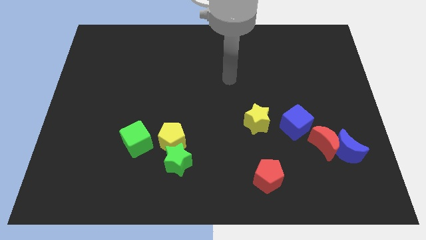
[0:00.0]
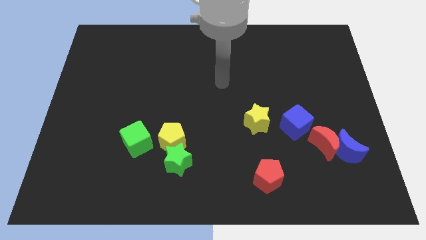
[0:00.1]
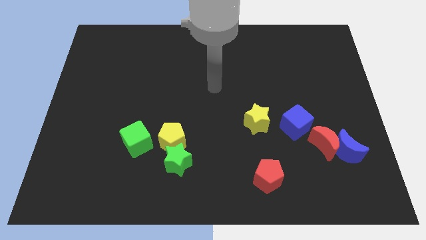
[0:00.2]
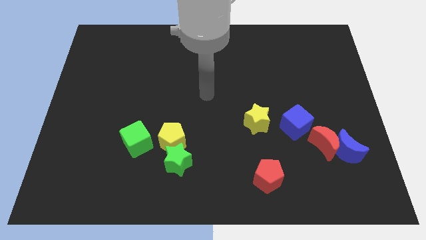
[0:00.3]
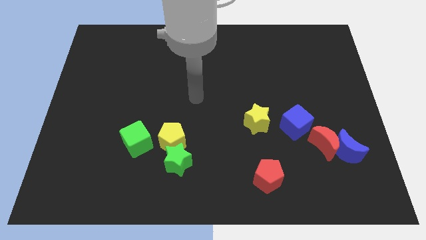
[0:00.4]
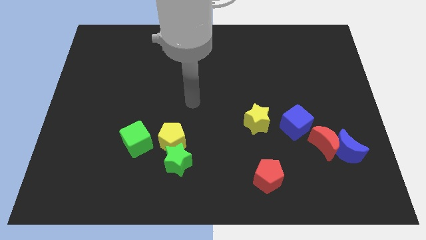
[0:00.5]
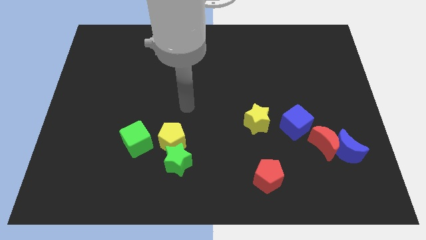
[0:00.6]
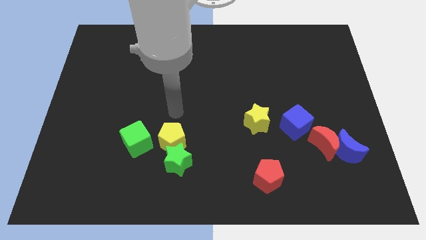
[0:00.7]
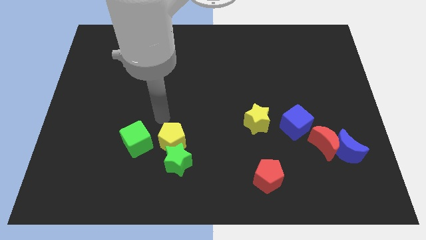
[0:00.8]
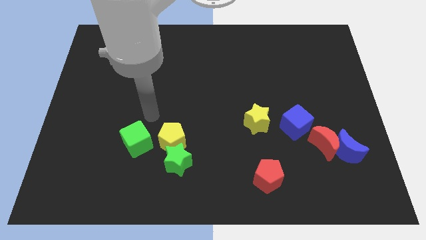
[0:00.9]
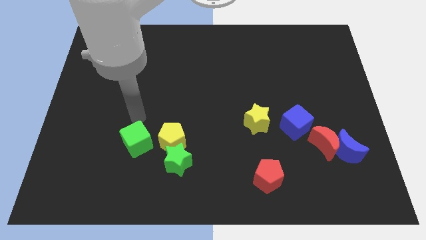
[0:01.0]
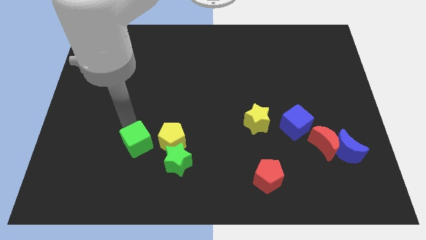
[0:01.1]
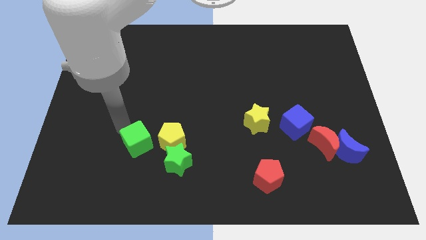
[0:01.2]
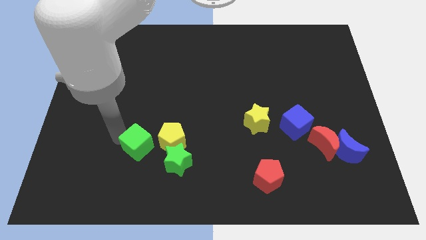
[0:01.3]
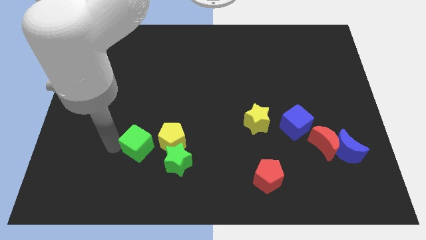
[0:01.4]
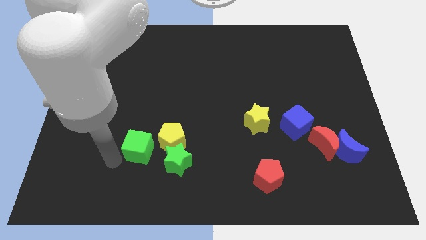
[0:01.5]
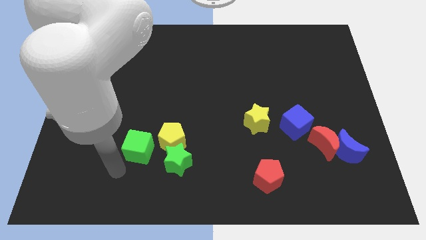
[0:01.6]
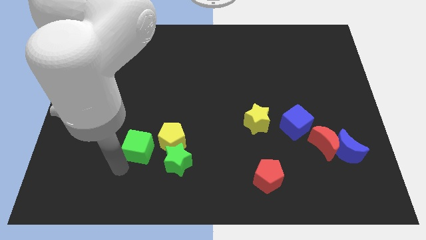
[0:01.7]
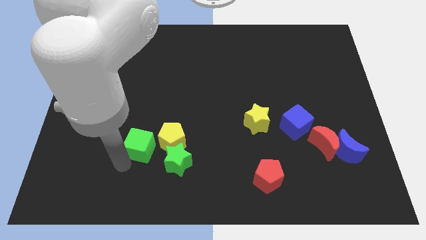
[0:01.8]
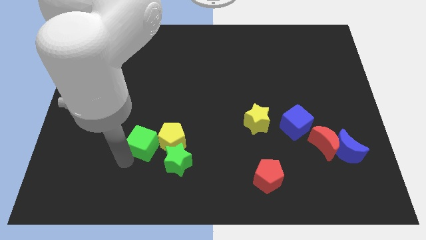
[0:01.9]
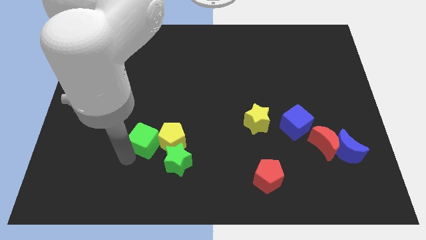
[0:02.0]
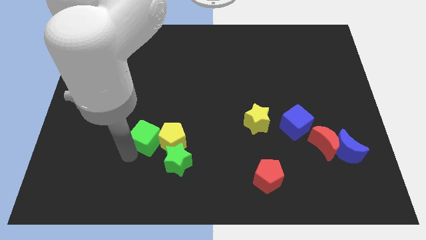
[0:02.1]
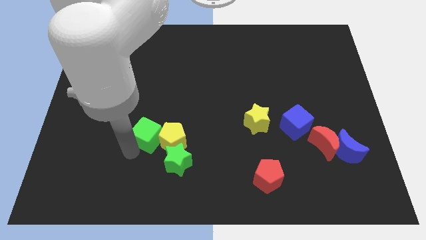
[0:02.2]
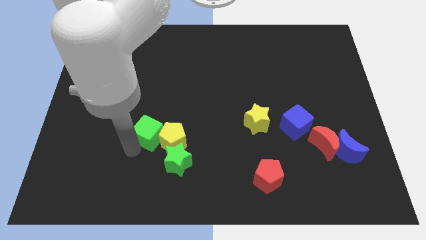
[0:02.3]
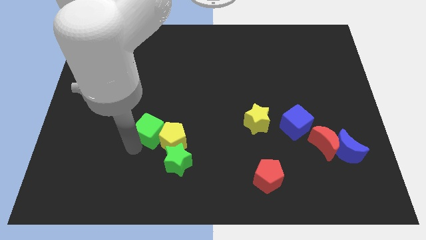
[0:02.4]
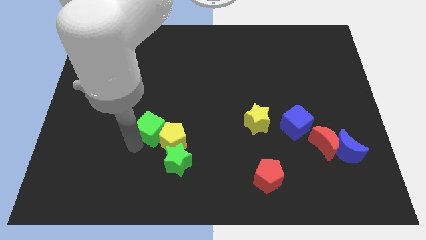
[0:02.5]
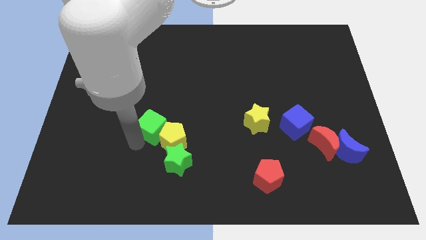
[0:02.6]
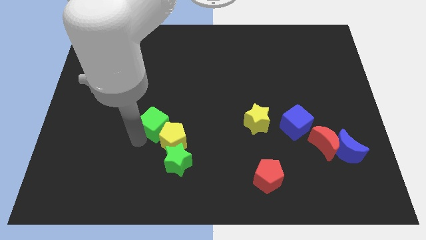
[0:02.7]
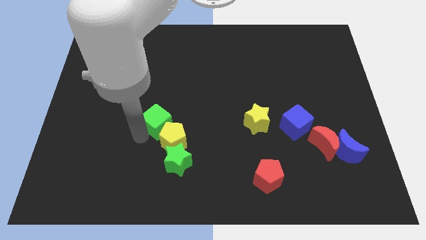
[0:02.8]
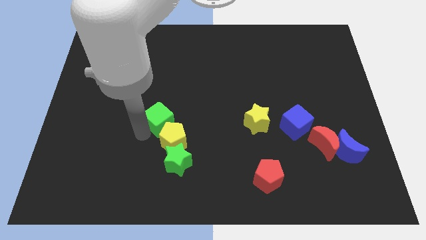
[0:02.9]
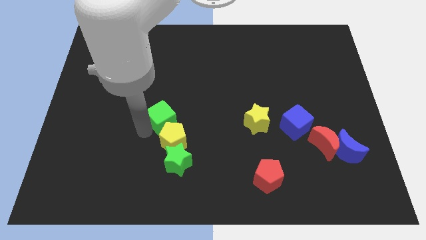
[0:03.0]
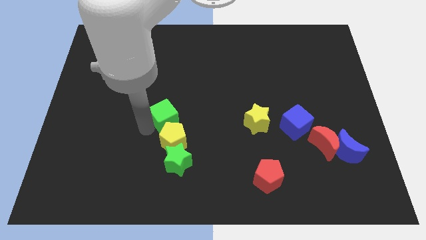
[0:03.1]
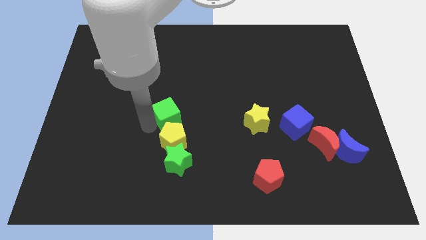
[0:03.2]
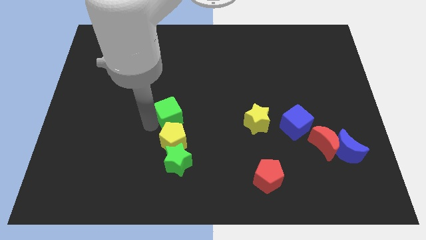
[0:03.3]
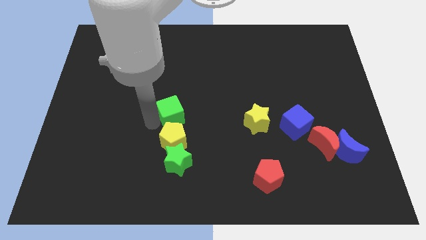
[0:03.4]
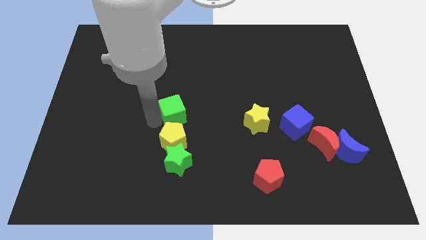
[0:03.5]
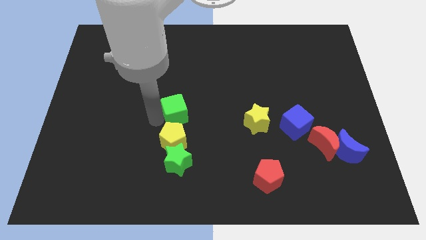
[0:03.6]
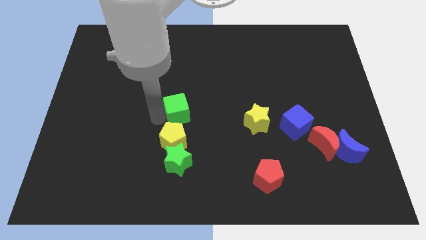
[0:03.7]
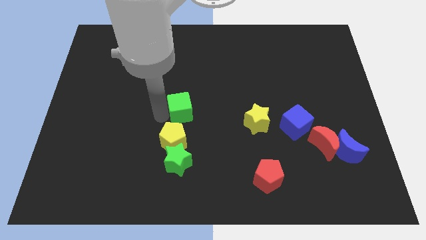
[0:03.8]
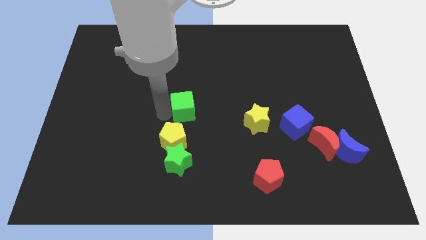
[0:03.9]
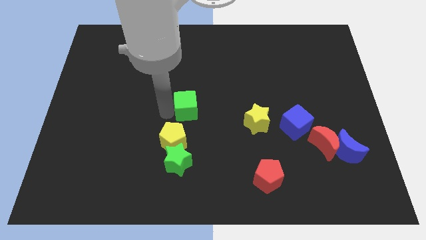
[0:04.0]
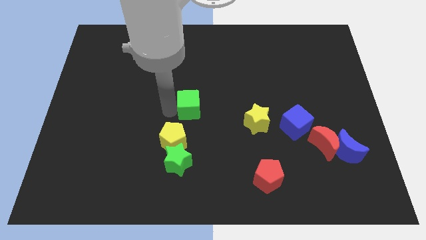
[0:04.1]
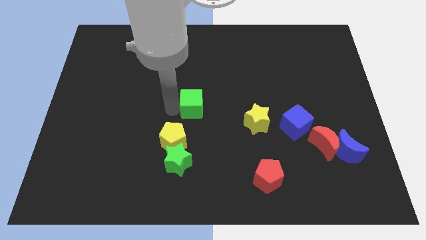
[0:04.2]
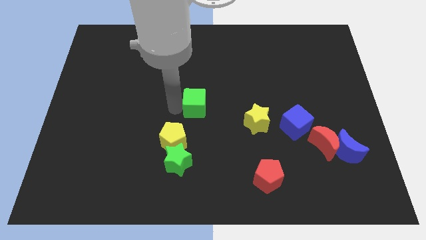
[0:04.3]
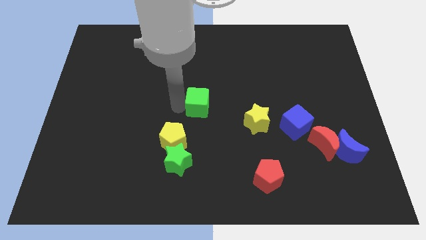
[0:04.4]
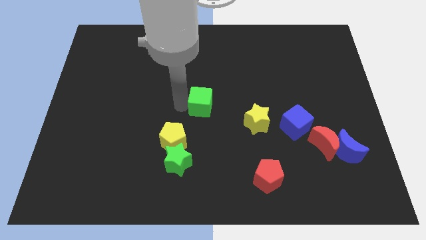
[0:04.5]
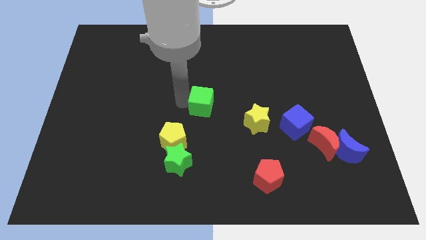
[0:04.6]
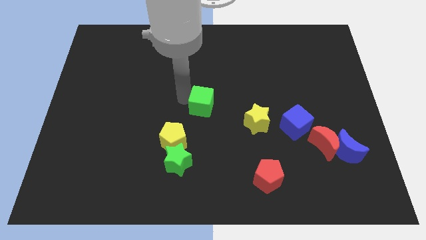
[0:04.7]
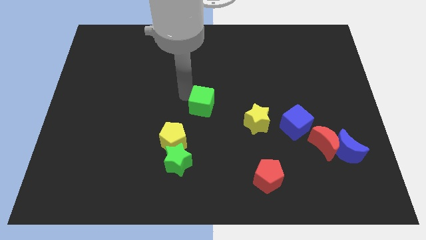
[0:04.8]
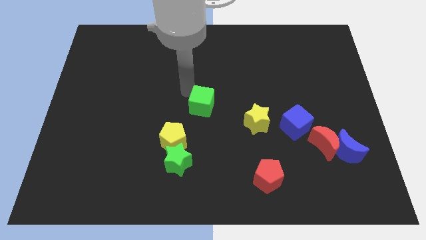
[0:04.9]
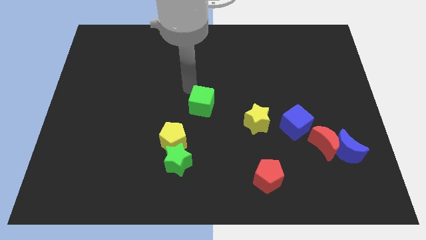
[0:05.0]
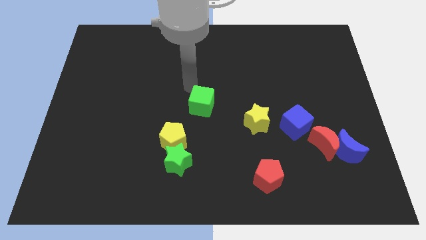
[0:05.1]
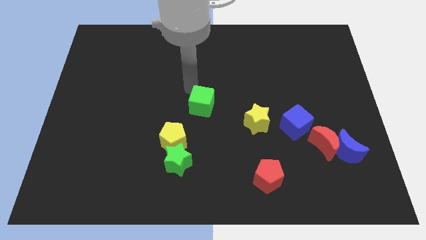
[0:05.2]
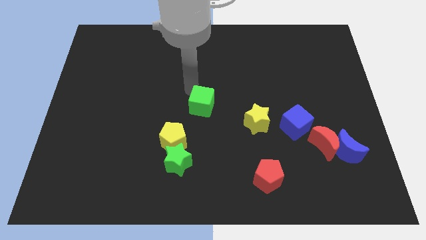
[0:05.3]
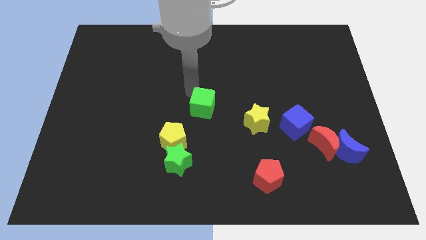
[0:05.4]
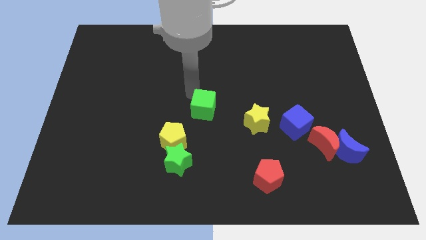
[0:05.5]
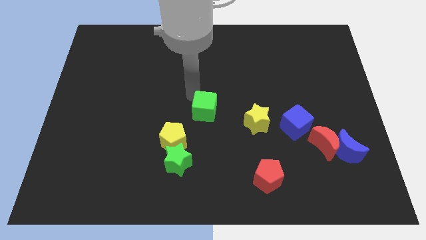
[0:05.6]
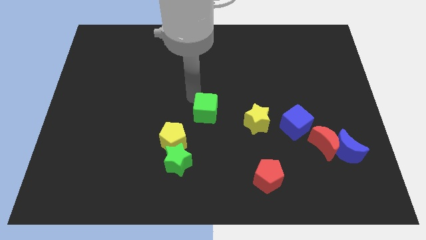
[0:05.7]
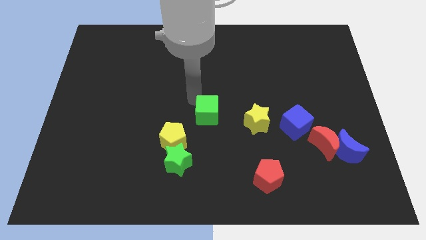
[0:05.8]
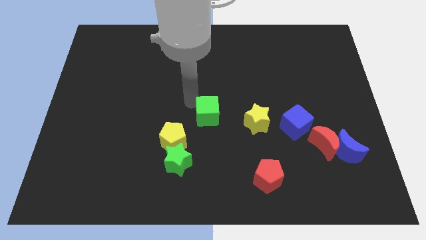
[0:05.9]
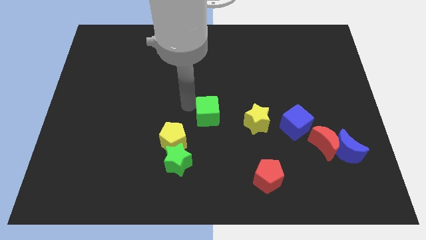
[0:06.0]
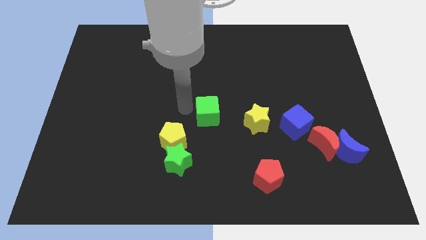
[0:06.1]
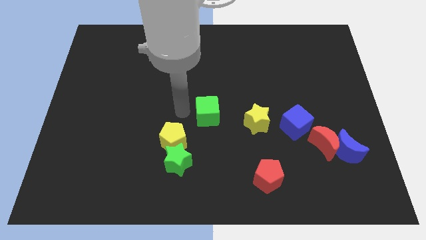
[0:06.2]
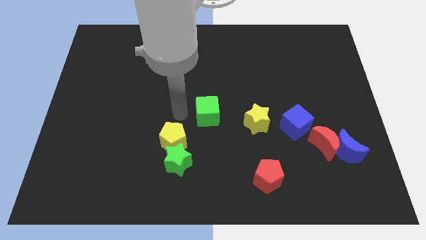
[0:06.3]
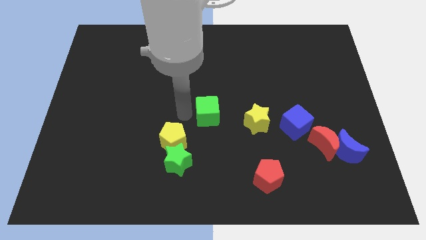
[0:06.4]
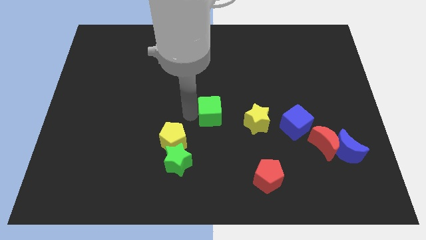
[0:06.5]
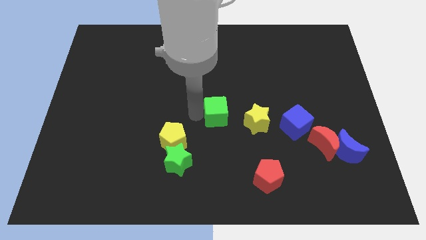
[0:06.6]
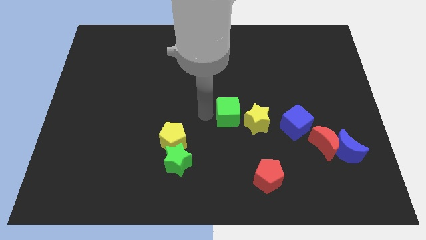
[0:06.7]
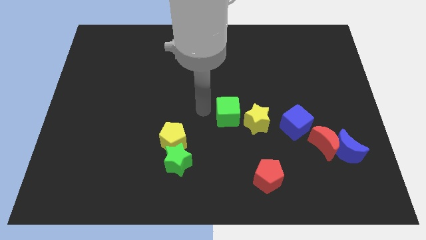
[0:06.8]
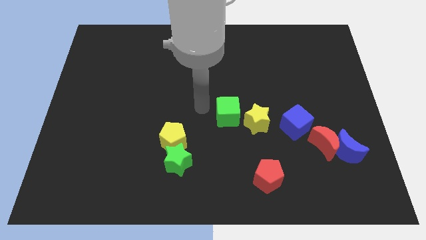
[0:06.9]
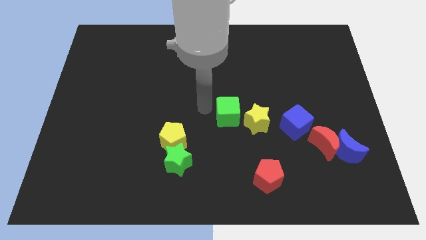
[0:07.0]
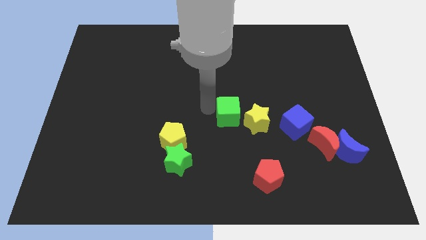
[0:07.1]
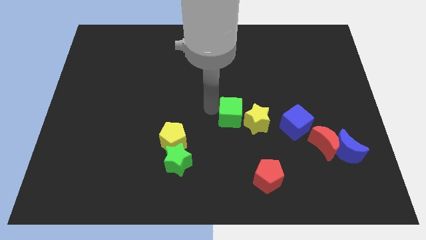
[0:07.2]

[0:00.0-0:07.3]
slide the green cube towards the yellow star
